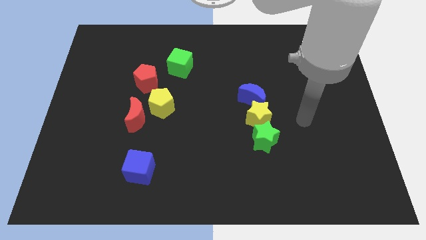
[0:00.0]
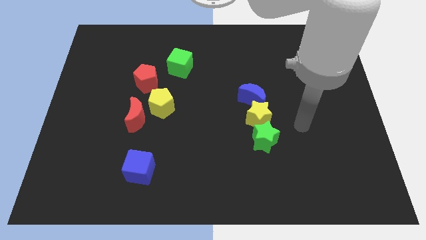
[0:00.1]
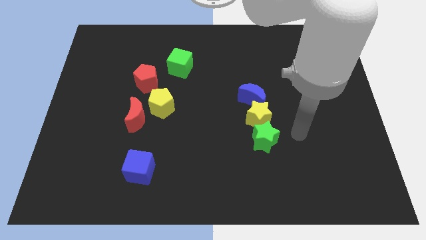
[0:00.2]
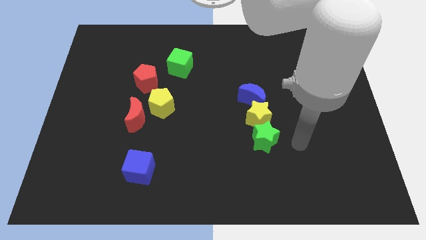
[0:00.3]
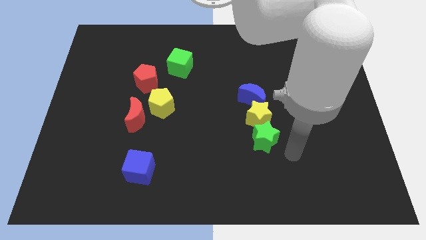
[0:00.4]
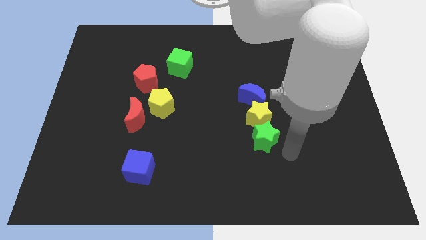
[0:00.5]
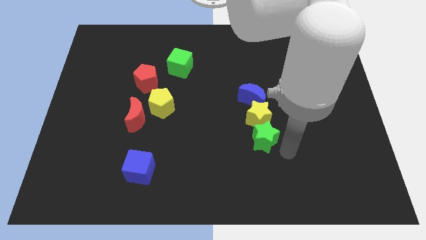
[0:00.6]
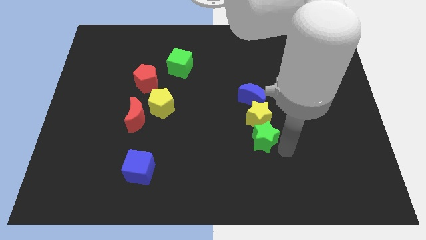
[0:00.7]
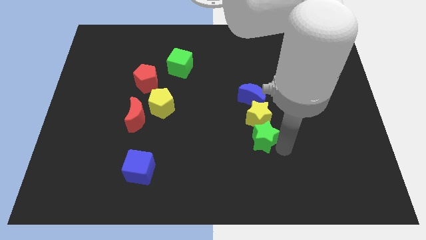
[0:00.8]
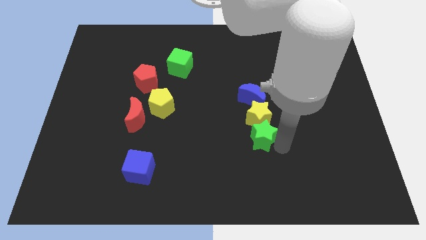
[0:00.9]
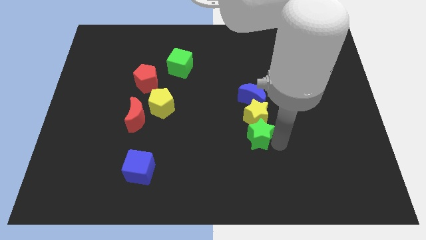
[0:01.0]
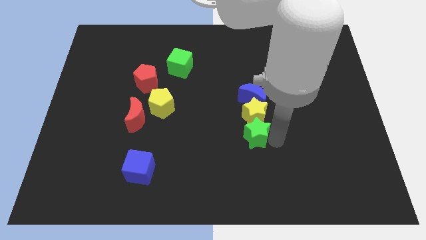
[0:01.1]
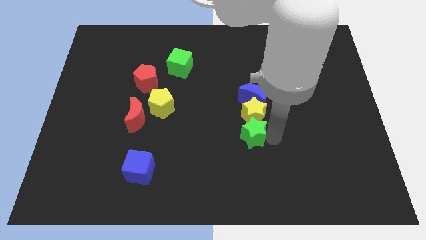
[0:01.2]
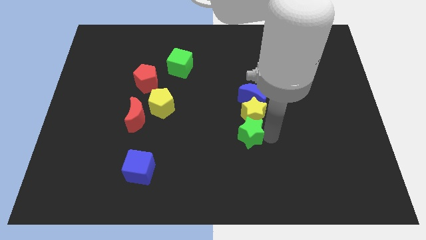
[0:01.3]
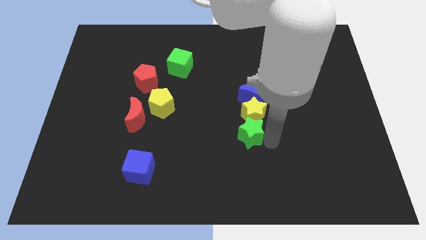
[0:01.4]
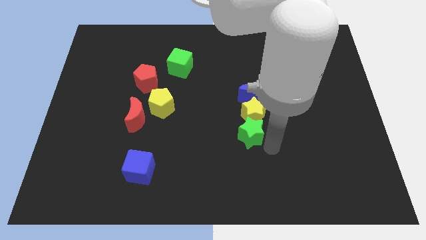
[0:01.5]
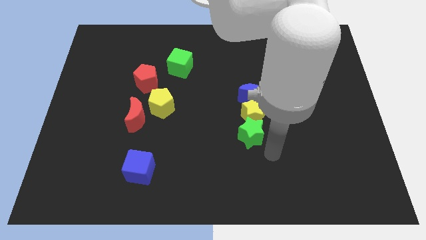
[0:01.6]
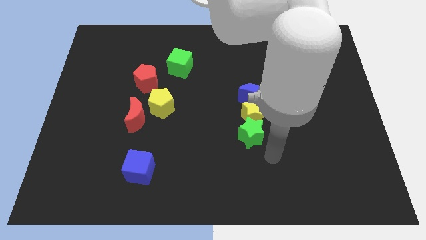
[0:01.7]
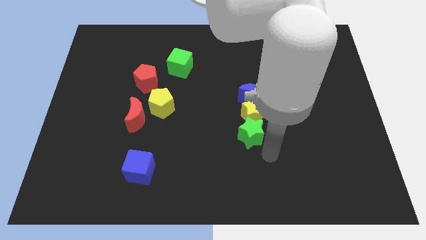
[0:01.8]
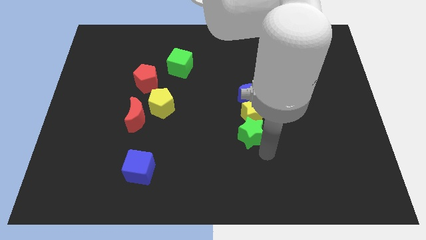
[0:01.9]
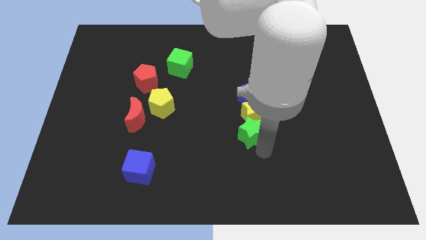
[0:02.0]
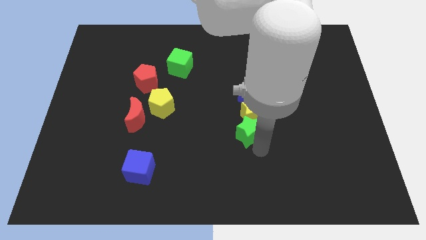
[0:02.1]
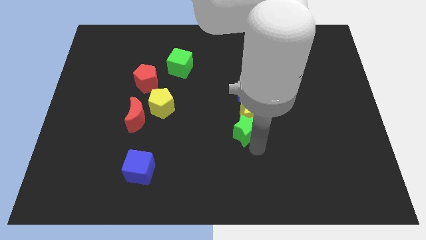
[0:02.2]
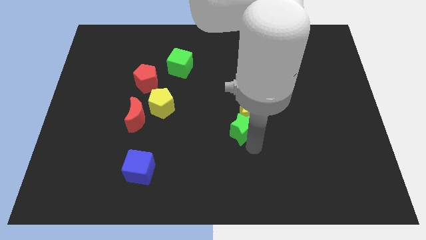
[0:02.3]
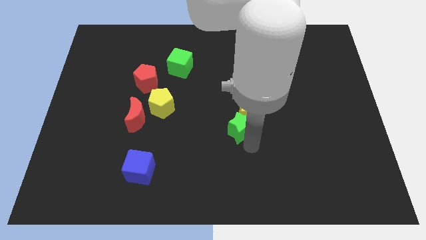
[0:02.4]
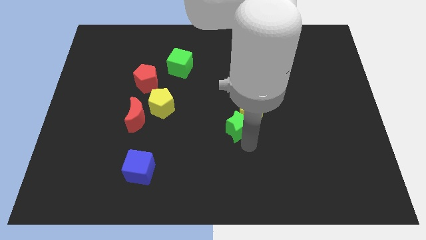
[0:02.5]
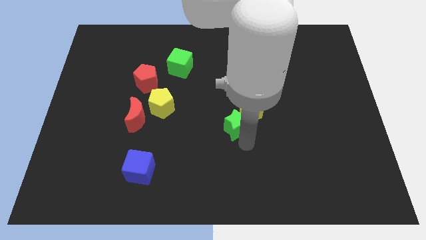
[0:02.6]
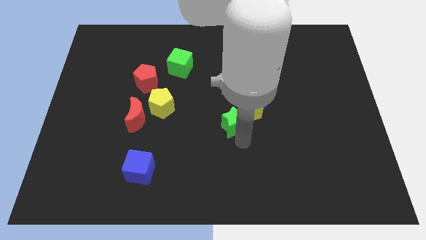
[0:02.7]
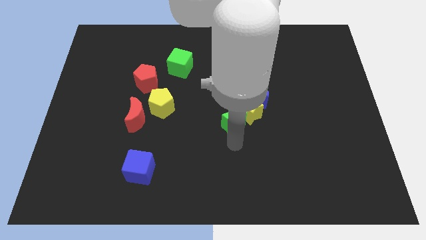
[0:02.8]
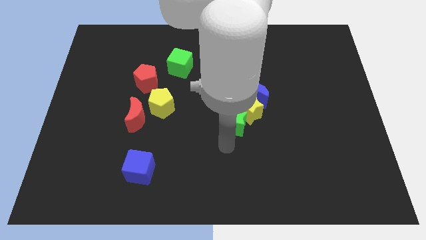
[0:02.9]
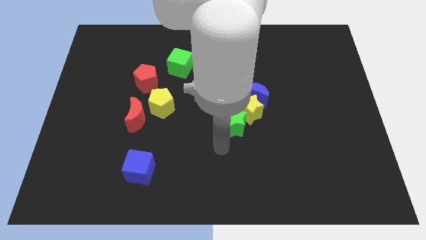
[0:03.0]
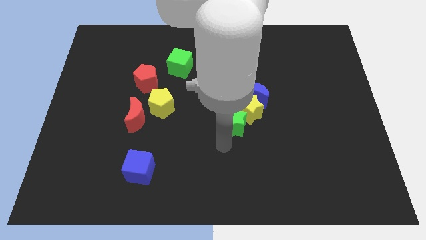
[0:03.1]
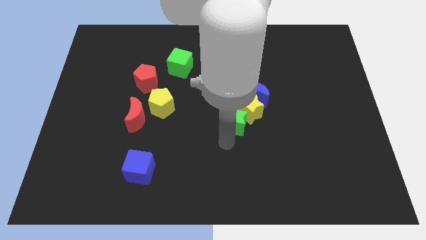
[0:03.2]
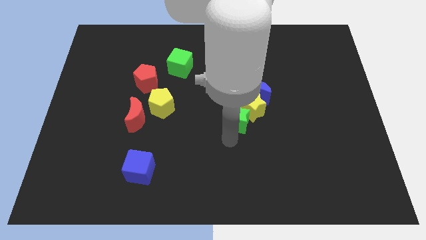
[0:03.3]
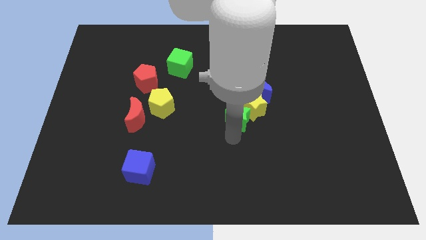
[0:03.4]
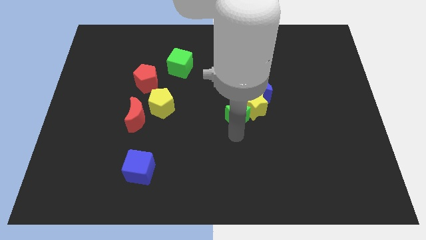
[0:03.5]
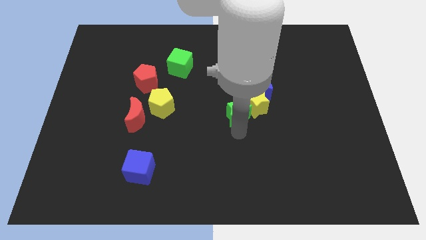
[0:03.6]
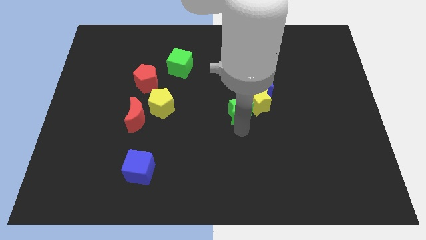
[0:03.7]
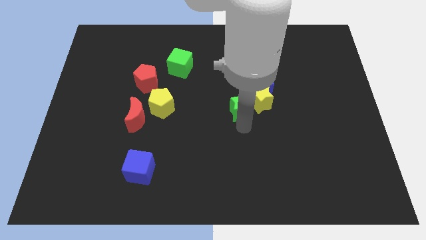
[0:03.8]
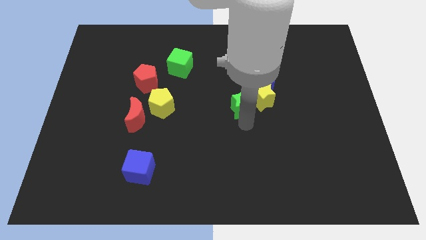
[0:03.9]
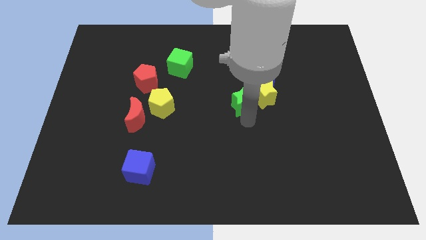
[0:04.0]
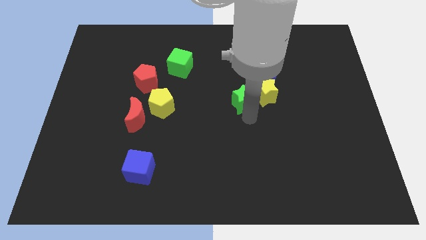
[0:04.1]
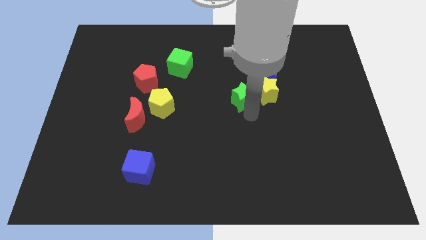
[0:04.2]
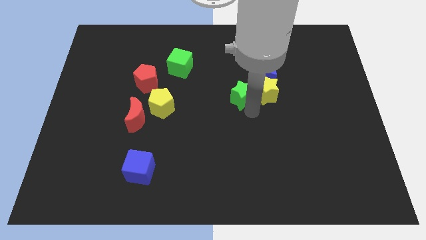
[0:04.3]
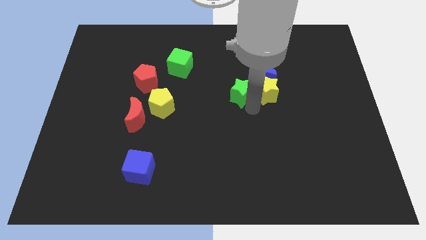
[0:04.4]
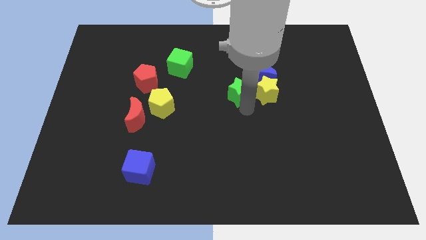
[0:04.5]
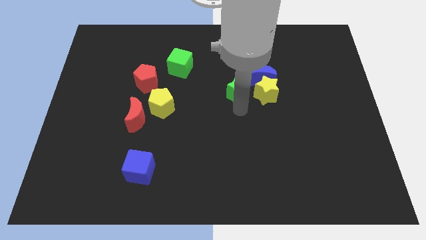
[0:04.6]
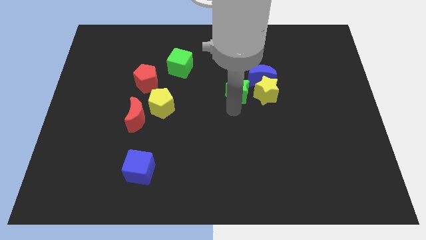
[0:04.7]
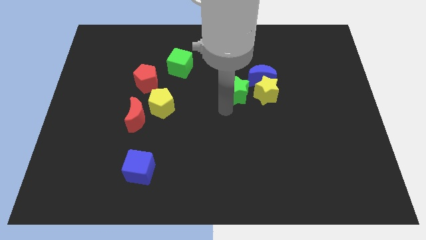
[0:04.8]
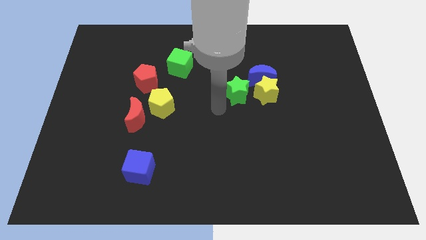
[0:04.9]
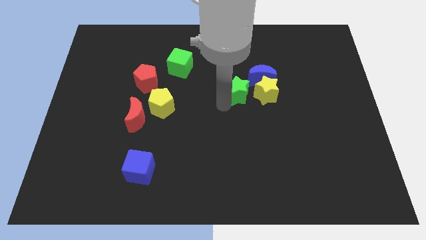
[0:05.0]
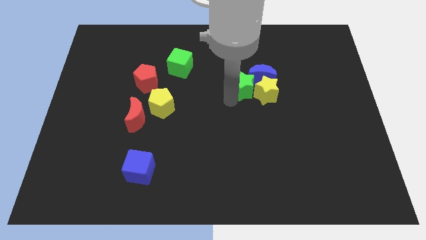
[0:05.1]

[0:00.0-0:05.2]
put the green star next to the blue moon

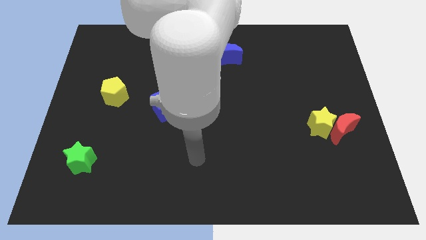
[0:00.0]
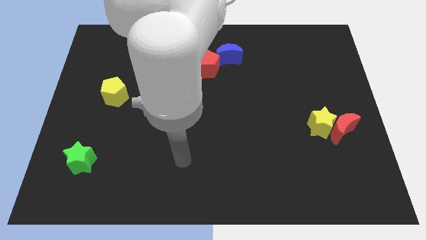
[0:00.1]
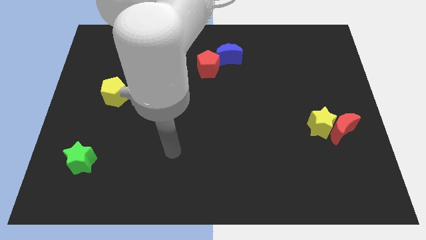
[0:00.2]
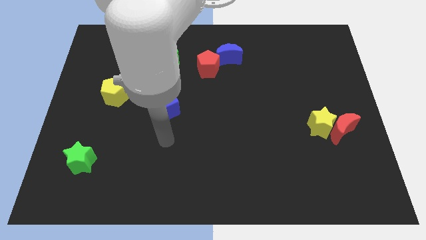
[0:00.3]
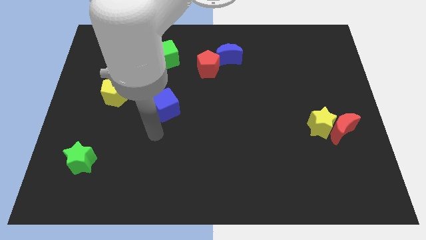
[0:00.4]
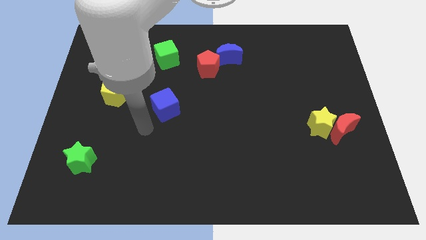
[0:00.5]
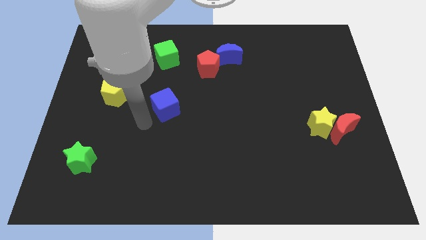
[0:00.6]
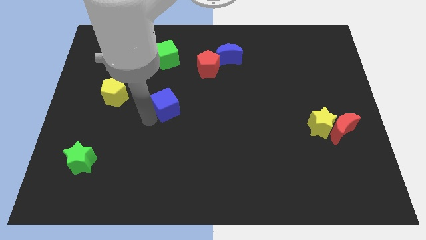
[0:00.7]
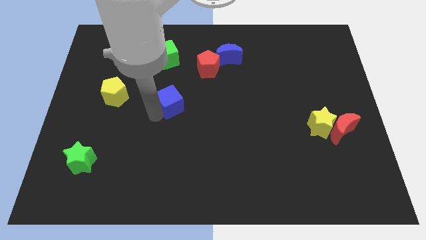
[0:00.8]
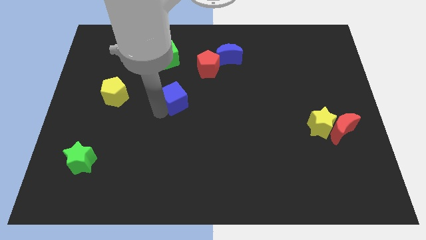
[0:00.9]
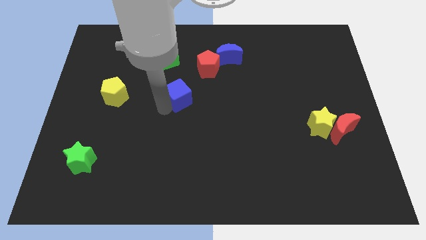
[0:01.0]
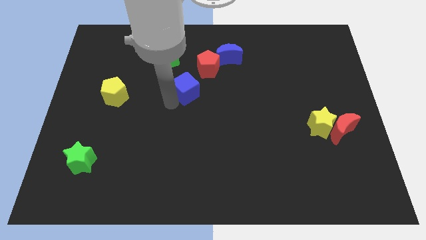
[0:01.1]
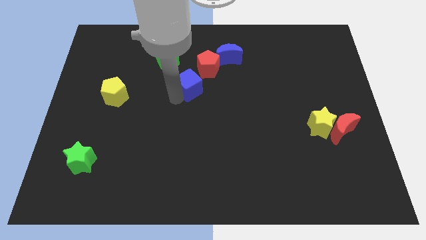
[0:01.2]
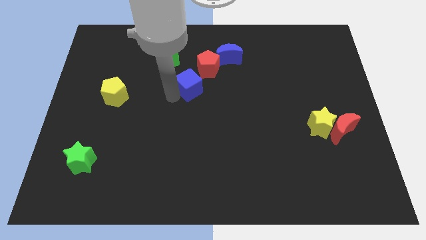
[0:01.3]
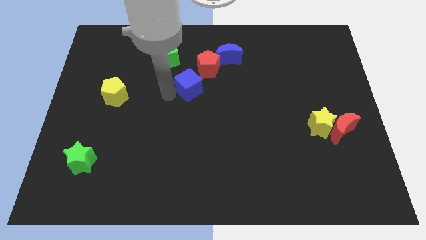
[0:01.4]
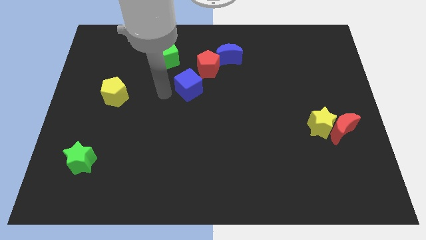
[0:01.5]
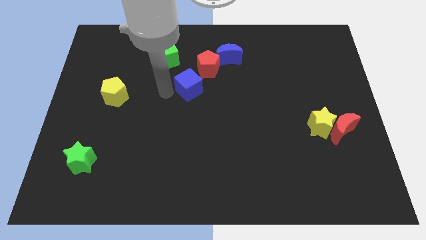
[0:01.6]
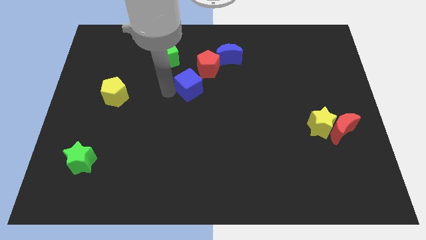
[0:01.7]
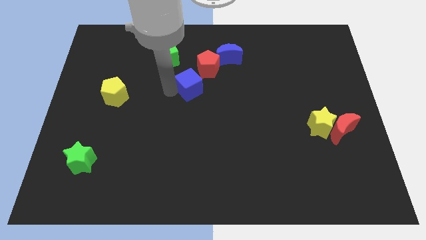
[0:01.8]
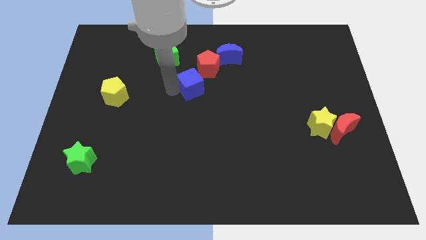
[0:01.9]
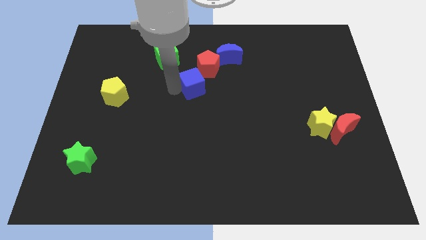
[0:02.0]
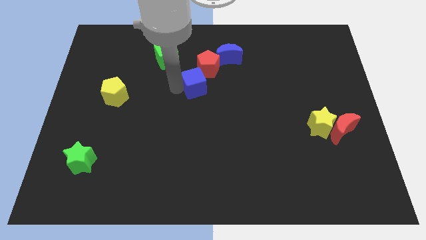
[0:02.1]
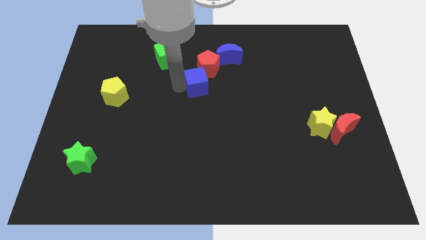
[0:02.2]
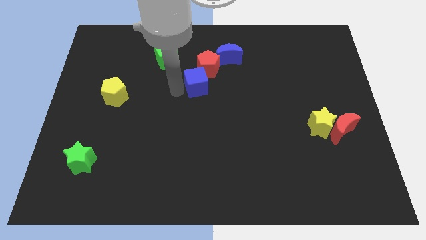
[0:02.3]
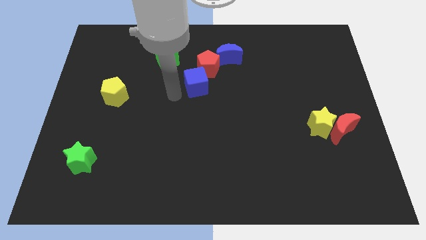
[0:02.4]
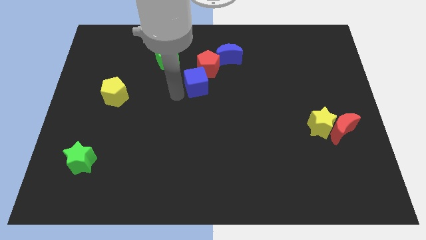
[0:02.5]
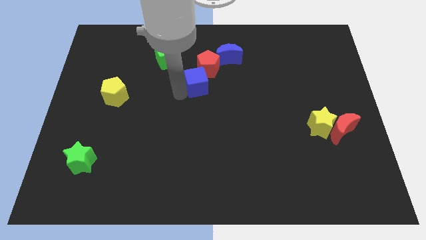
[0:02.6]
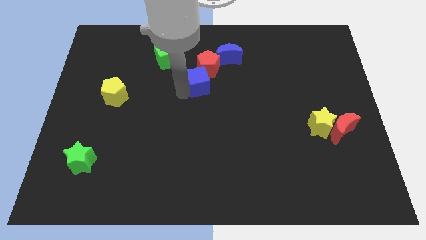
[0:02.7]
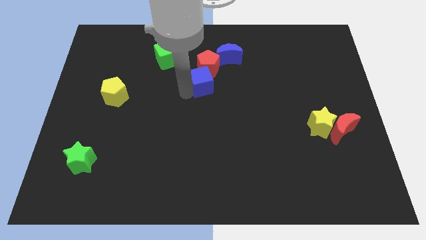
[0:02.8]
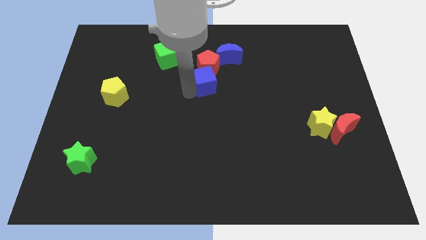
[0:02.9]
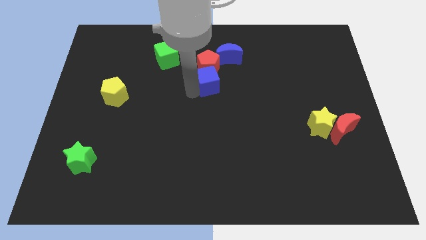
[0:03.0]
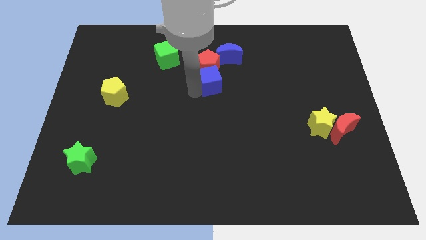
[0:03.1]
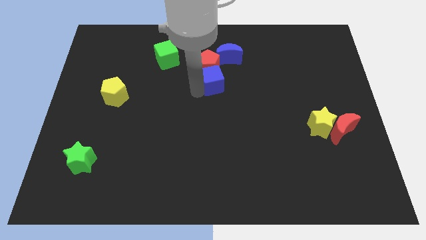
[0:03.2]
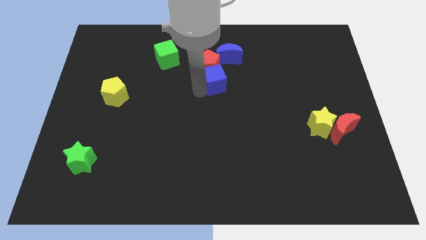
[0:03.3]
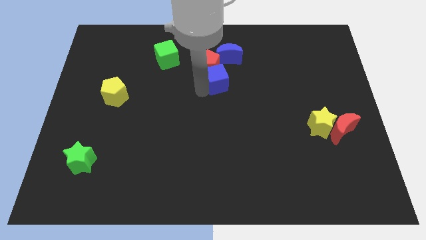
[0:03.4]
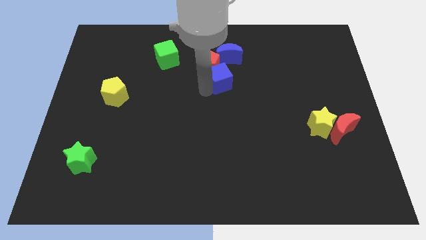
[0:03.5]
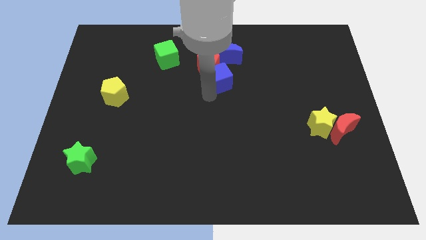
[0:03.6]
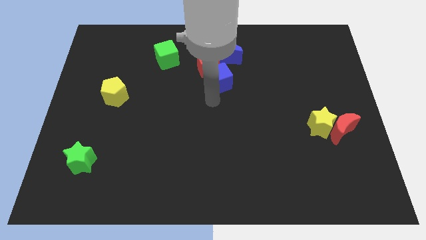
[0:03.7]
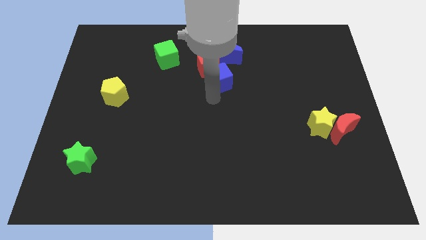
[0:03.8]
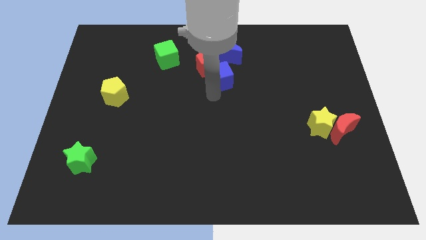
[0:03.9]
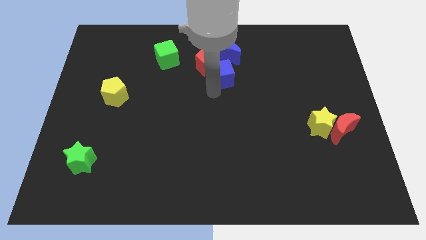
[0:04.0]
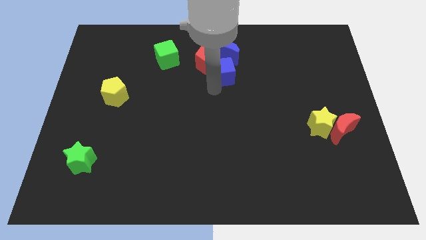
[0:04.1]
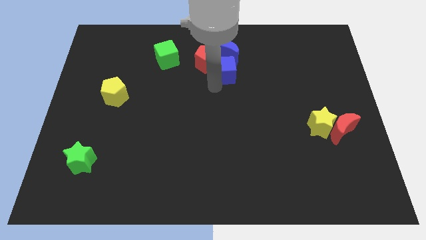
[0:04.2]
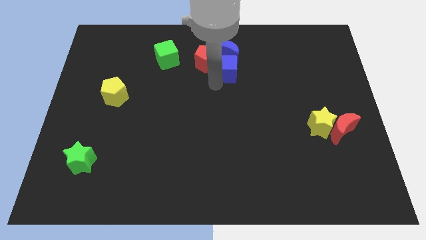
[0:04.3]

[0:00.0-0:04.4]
slide the blue cube to the blue moon
